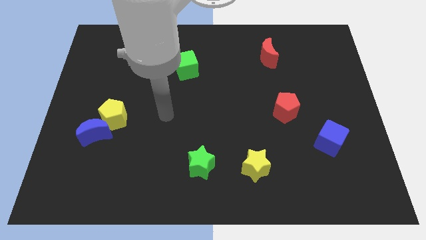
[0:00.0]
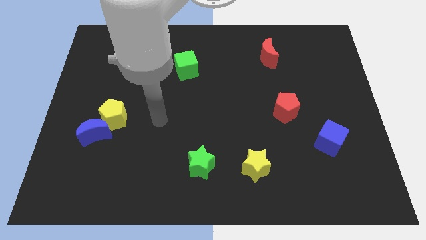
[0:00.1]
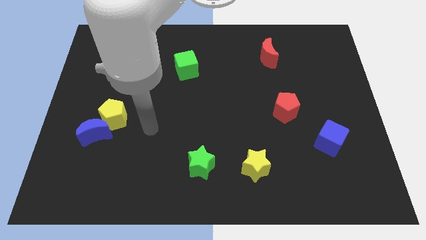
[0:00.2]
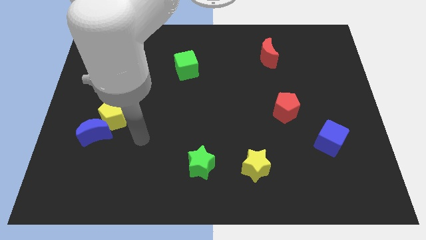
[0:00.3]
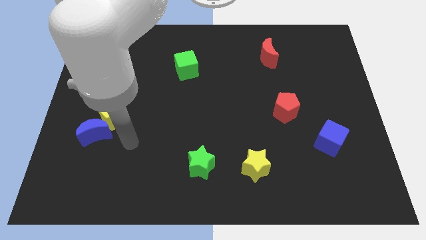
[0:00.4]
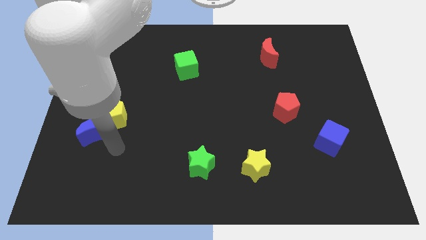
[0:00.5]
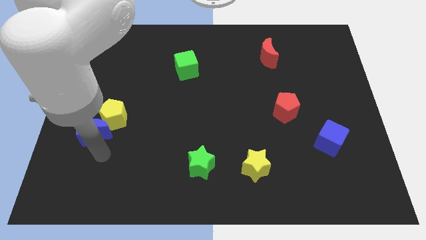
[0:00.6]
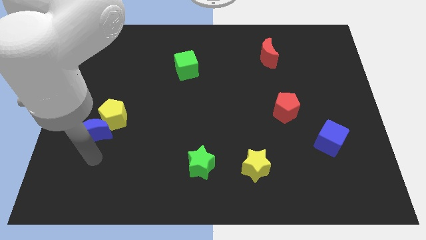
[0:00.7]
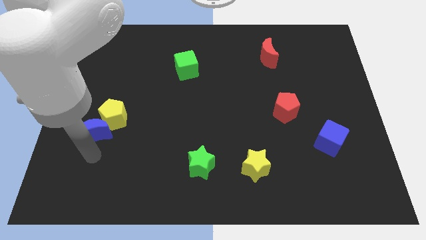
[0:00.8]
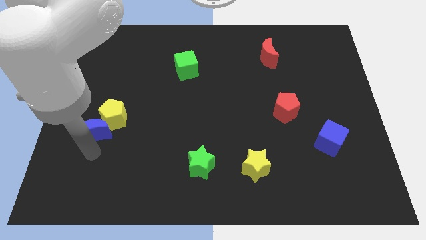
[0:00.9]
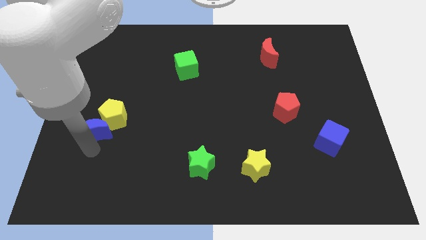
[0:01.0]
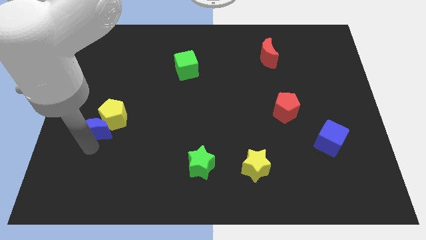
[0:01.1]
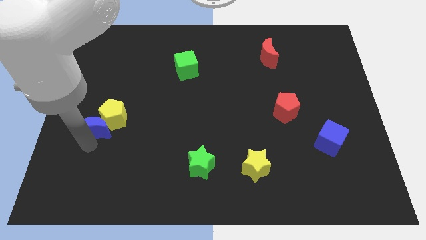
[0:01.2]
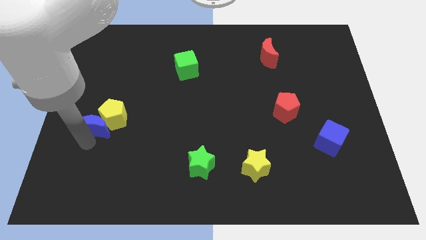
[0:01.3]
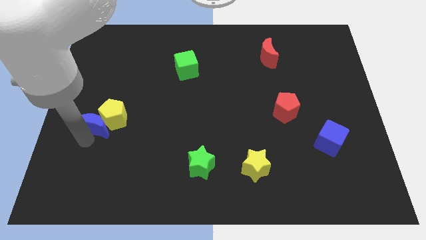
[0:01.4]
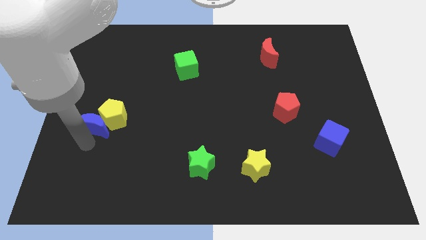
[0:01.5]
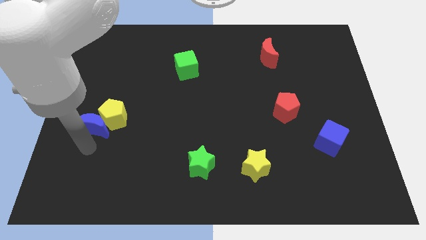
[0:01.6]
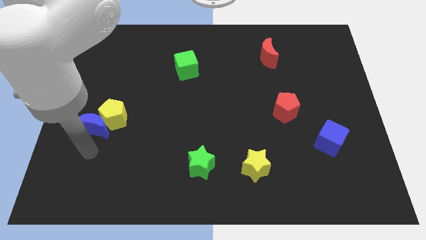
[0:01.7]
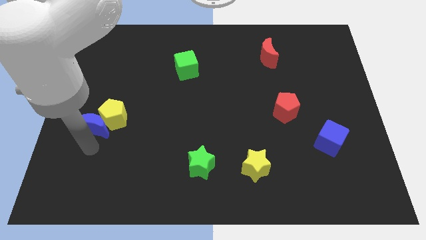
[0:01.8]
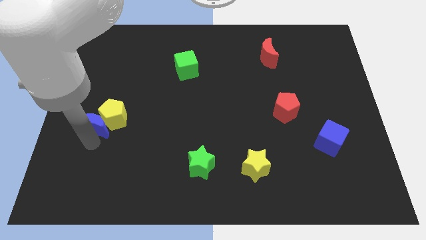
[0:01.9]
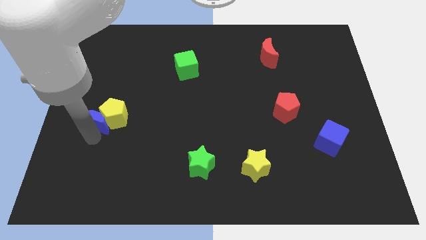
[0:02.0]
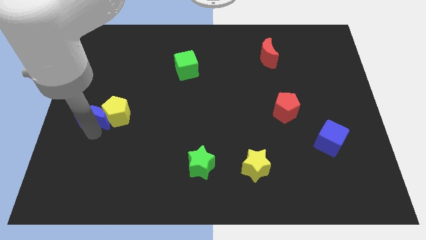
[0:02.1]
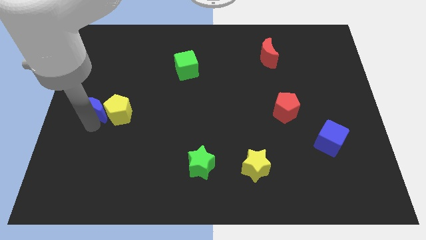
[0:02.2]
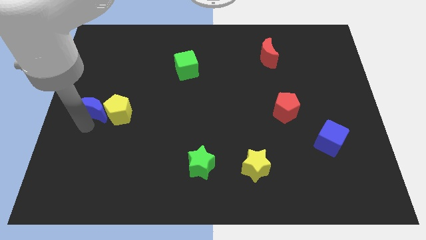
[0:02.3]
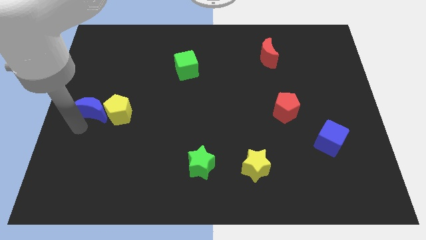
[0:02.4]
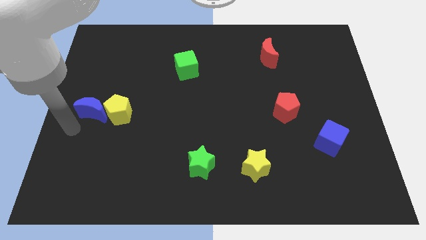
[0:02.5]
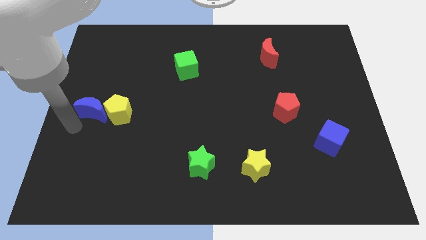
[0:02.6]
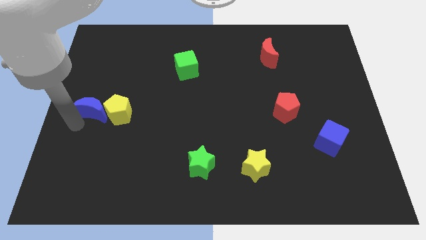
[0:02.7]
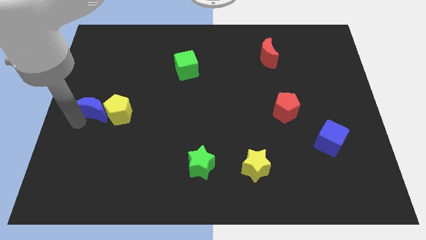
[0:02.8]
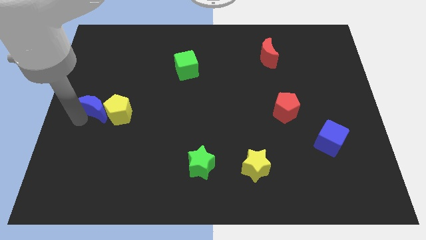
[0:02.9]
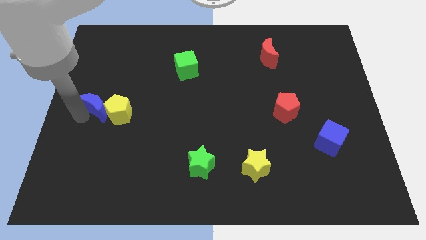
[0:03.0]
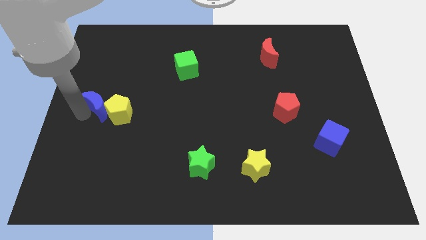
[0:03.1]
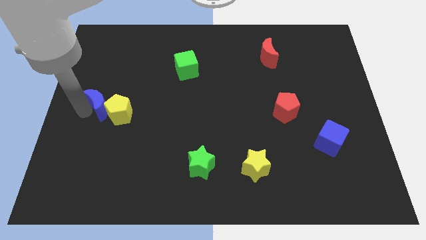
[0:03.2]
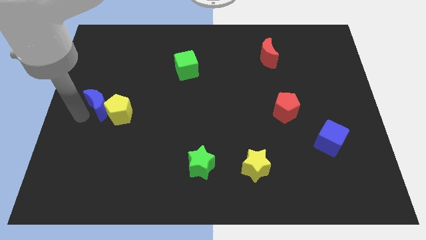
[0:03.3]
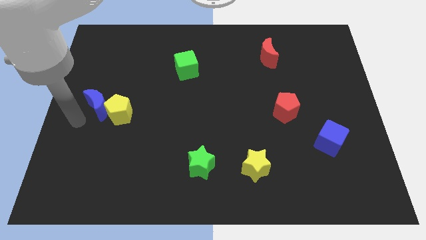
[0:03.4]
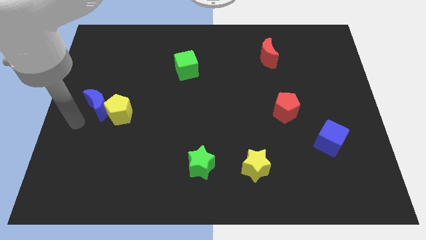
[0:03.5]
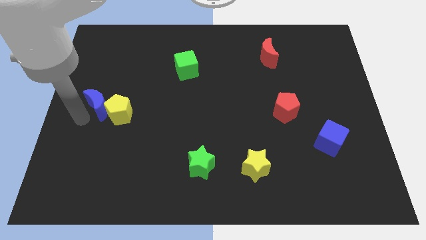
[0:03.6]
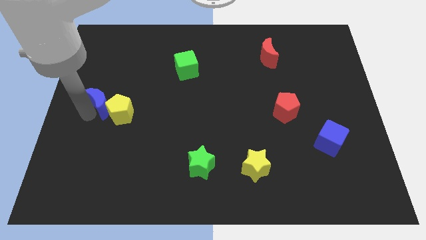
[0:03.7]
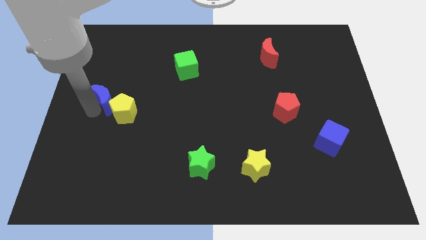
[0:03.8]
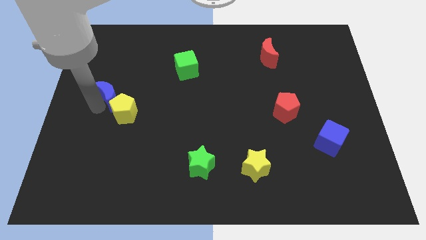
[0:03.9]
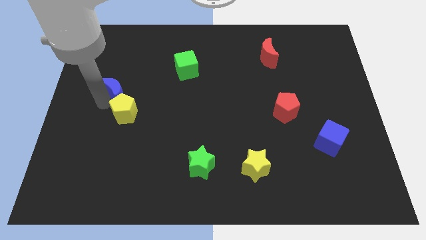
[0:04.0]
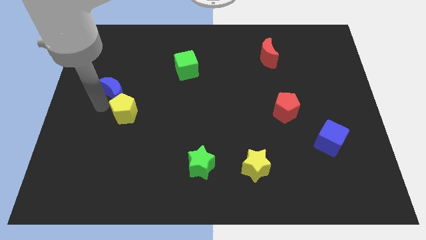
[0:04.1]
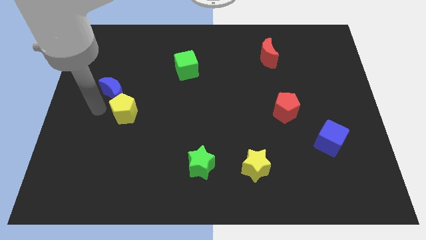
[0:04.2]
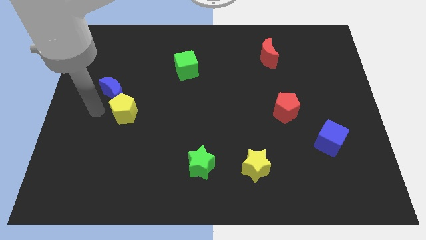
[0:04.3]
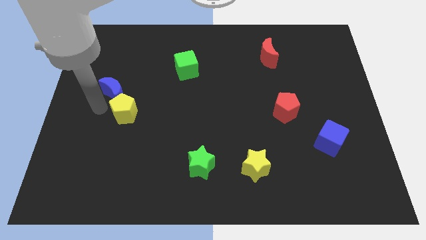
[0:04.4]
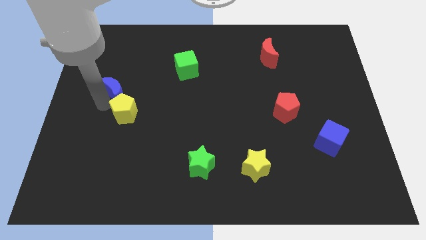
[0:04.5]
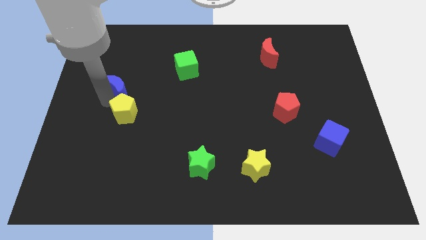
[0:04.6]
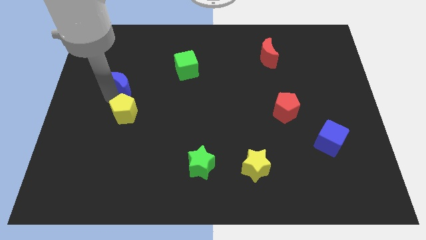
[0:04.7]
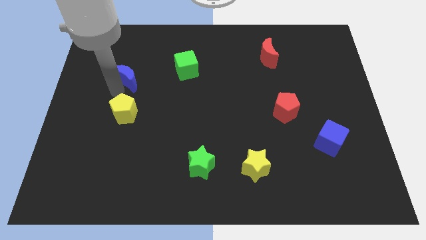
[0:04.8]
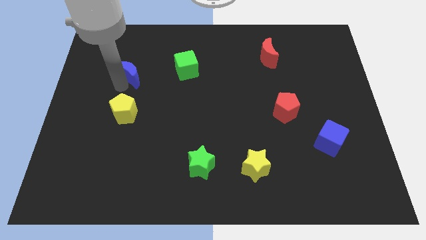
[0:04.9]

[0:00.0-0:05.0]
move the blue moon to the left side of the green cube

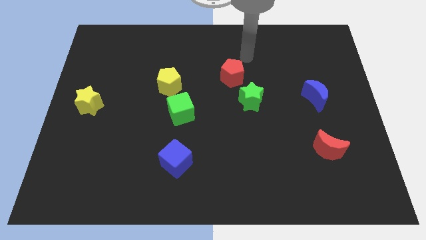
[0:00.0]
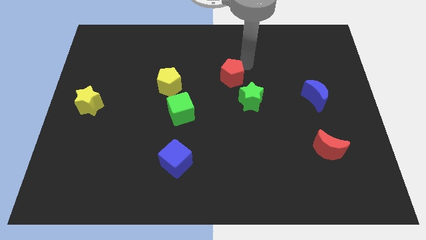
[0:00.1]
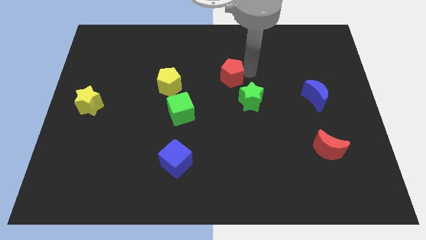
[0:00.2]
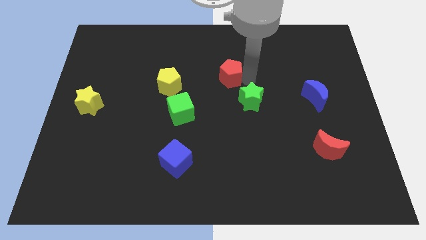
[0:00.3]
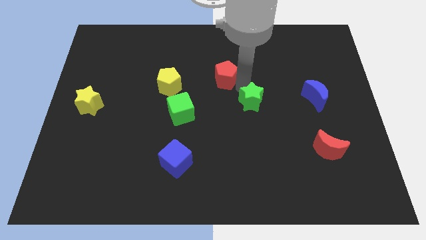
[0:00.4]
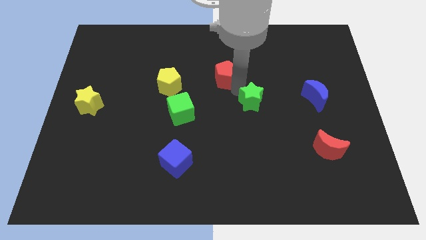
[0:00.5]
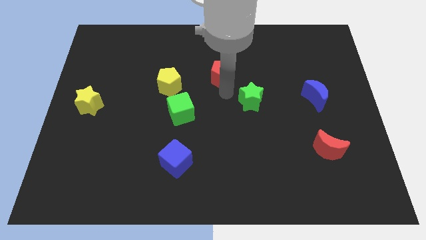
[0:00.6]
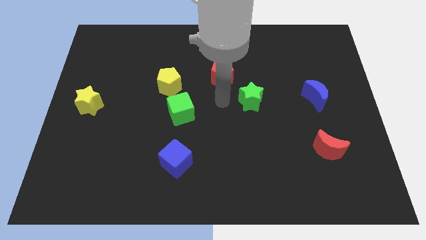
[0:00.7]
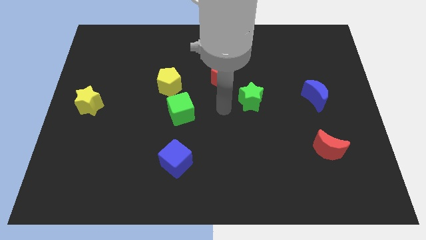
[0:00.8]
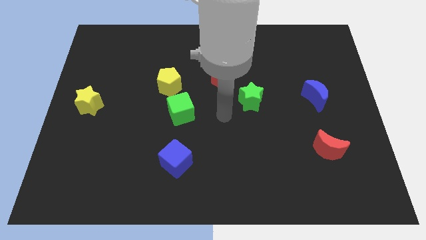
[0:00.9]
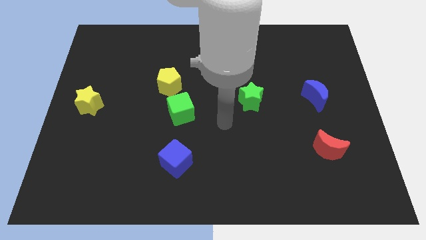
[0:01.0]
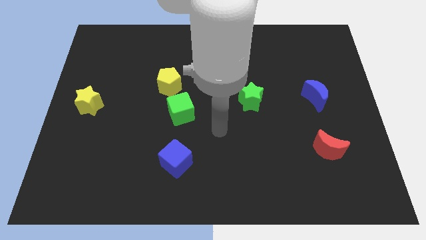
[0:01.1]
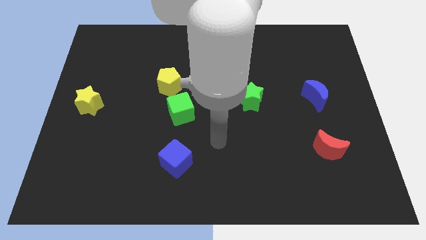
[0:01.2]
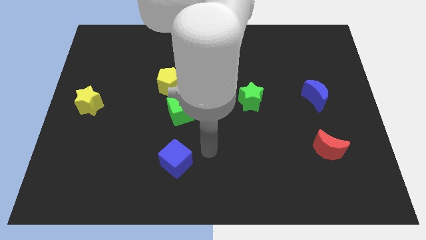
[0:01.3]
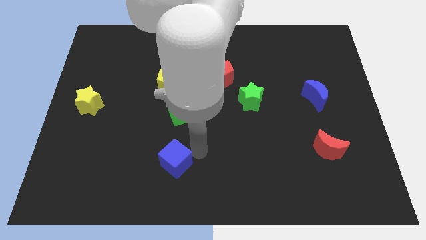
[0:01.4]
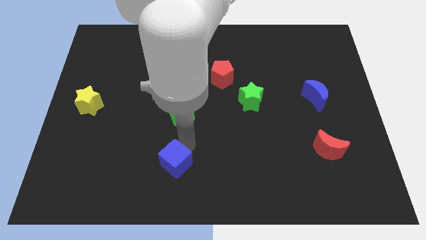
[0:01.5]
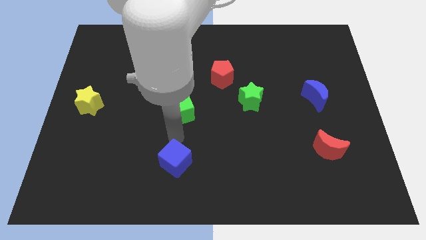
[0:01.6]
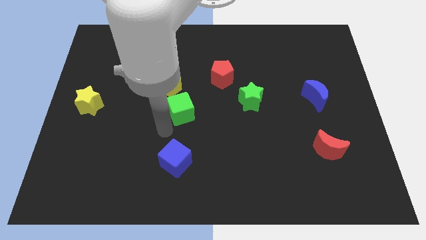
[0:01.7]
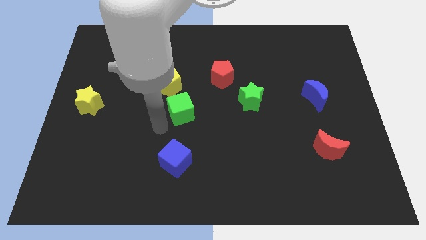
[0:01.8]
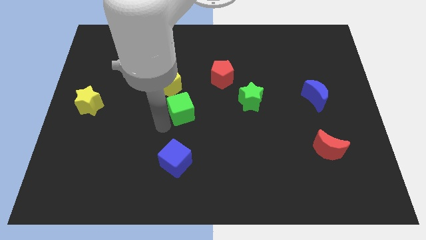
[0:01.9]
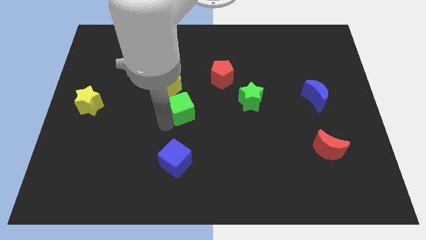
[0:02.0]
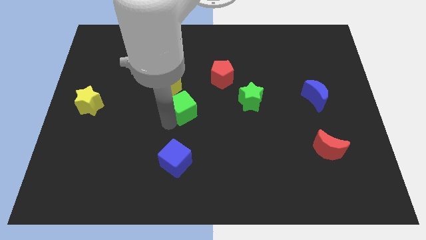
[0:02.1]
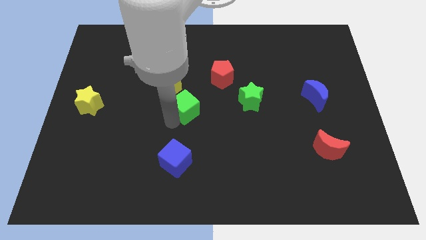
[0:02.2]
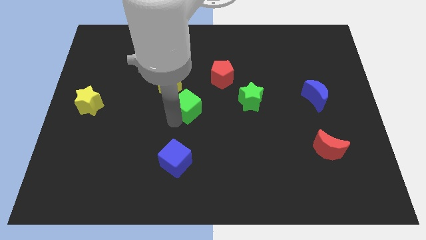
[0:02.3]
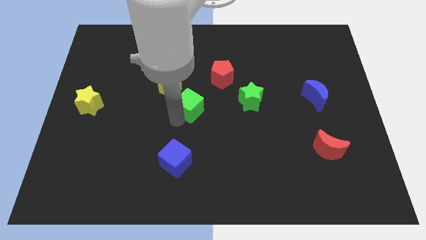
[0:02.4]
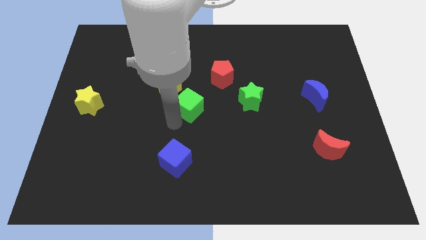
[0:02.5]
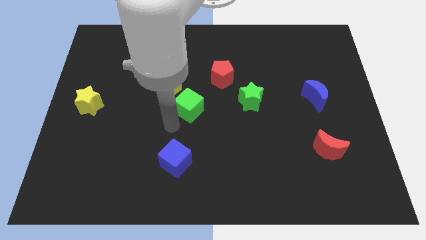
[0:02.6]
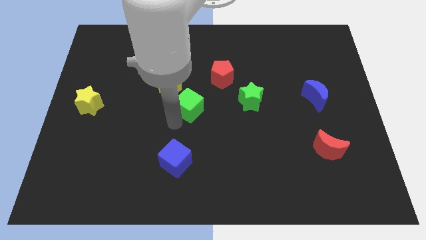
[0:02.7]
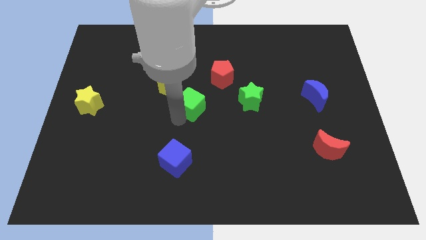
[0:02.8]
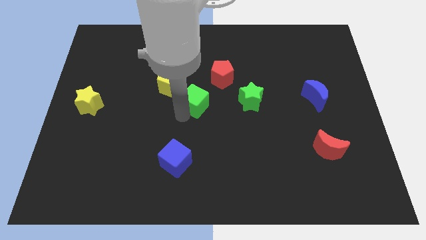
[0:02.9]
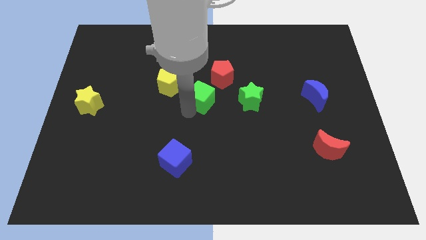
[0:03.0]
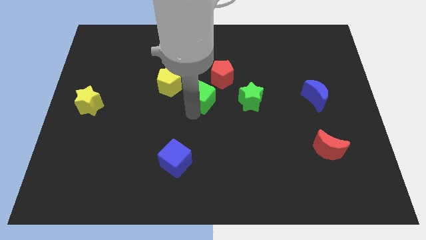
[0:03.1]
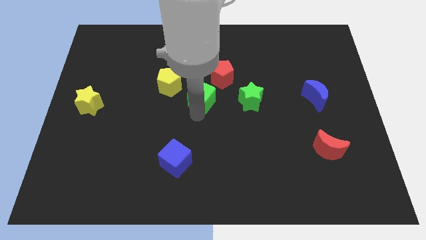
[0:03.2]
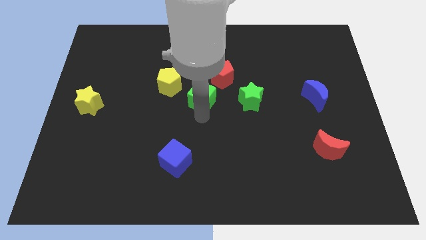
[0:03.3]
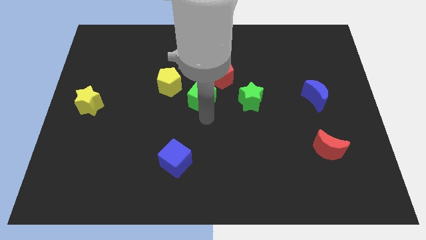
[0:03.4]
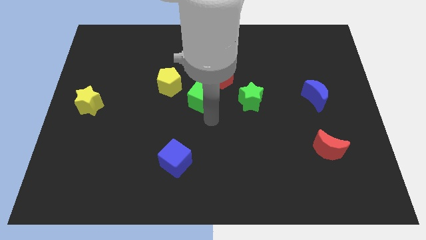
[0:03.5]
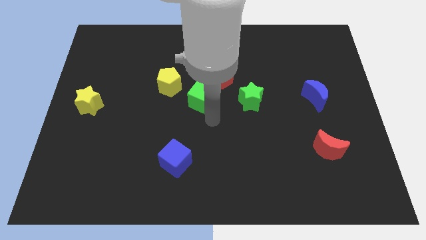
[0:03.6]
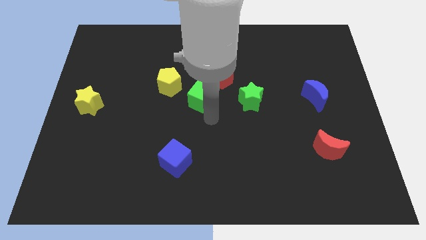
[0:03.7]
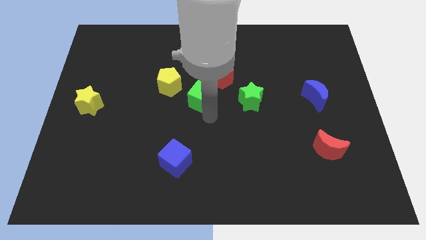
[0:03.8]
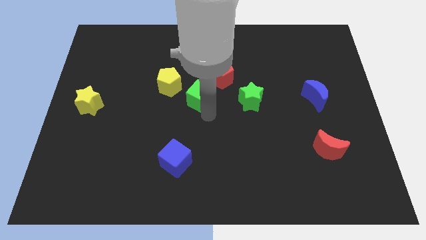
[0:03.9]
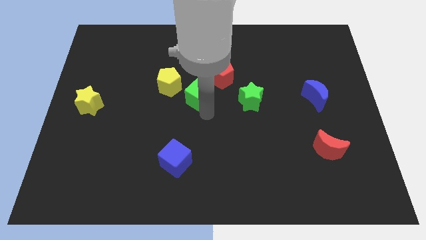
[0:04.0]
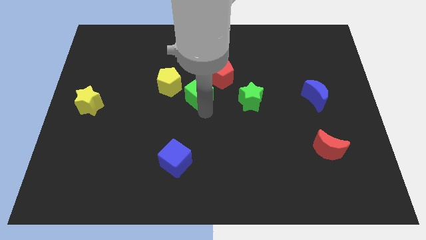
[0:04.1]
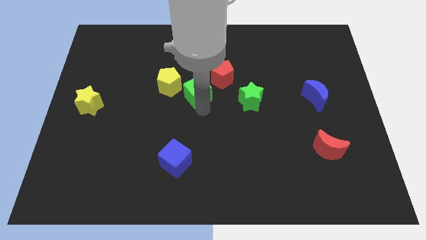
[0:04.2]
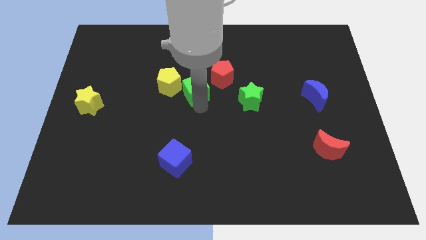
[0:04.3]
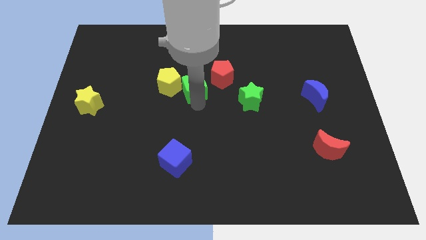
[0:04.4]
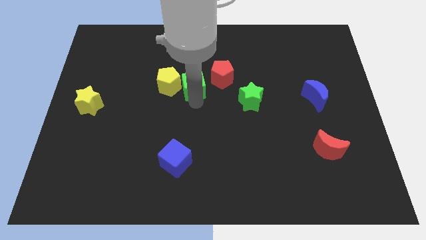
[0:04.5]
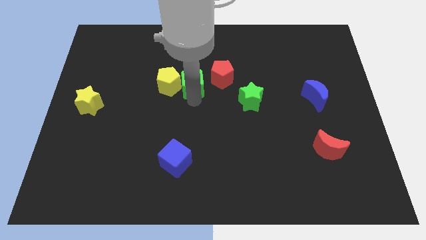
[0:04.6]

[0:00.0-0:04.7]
put the green cube to the top right of the yellow pentagon
